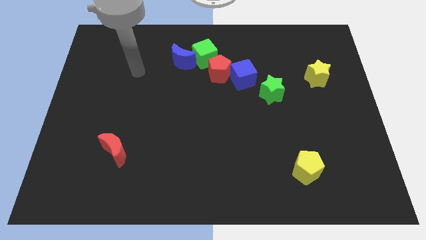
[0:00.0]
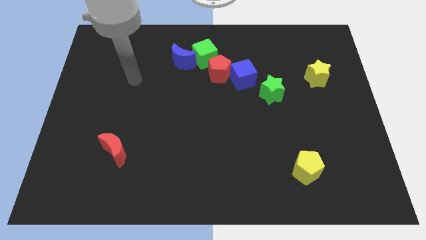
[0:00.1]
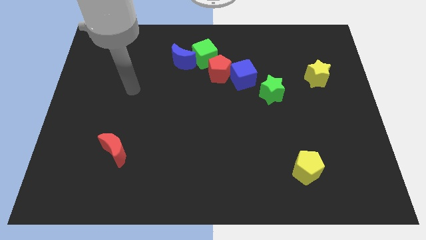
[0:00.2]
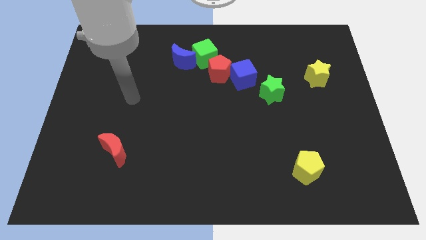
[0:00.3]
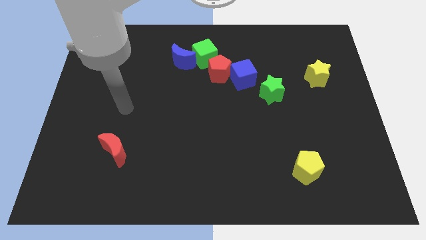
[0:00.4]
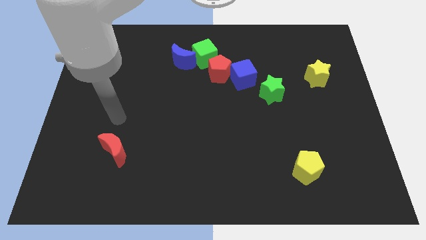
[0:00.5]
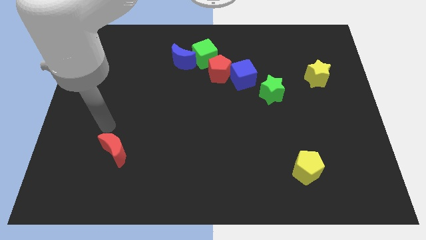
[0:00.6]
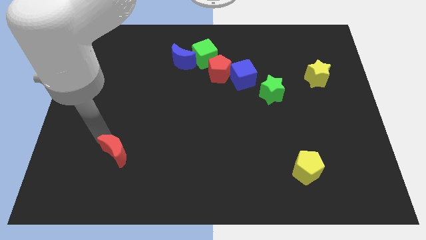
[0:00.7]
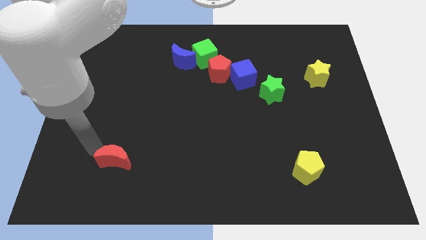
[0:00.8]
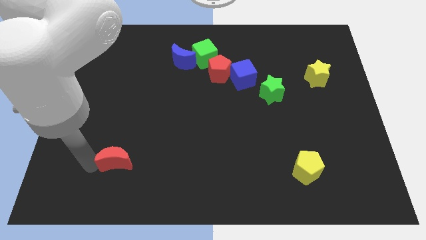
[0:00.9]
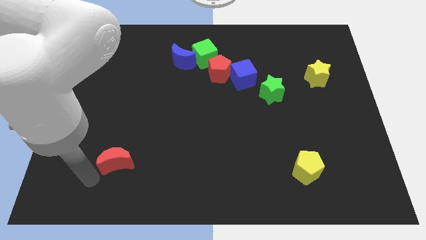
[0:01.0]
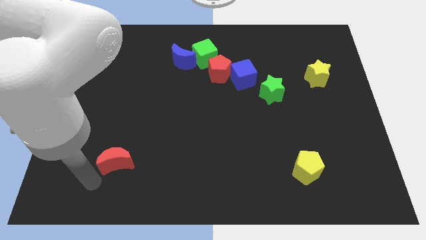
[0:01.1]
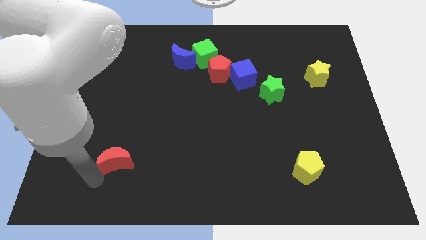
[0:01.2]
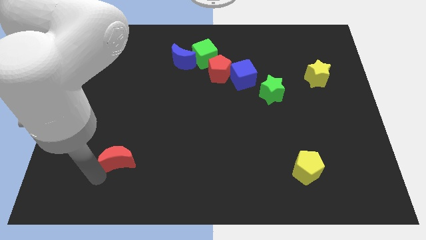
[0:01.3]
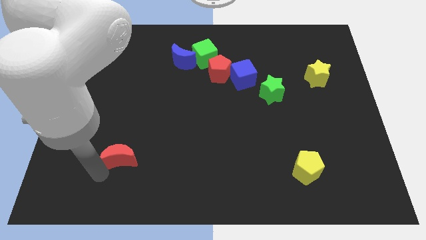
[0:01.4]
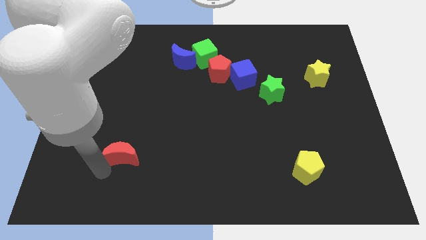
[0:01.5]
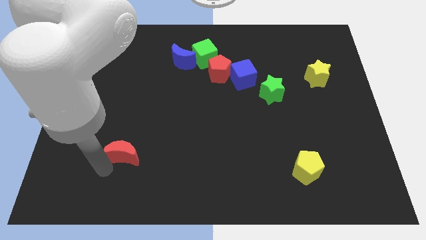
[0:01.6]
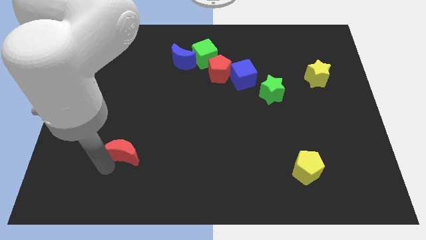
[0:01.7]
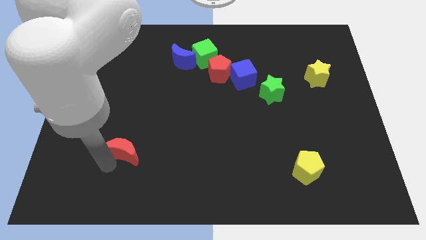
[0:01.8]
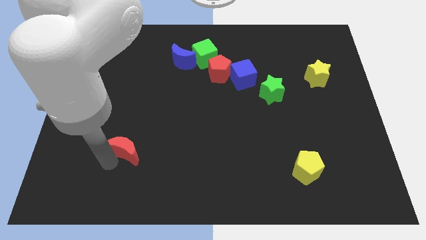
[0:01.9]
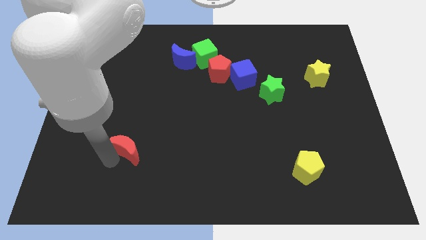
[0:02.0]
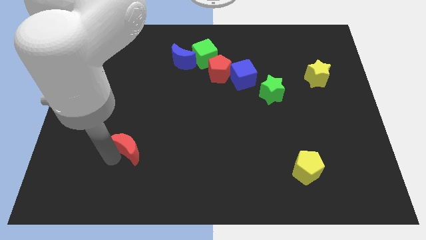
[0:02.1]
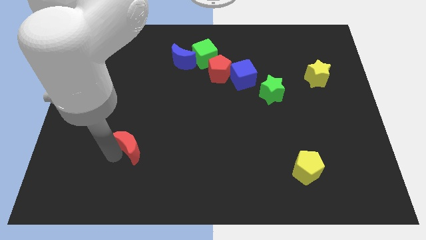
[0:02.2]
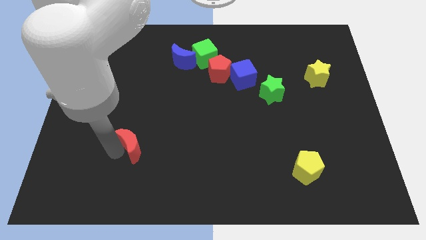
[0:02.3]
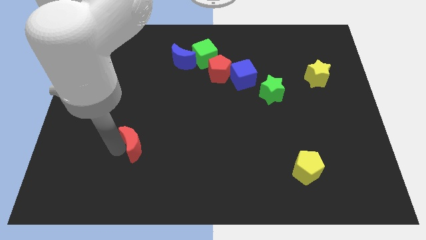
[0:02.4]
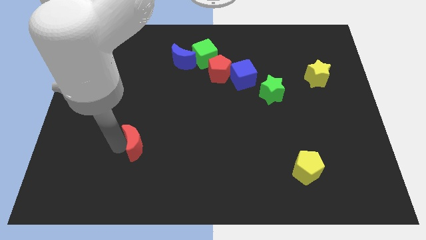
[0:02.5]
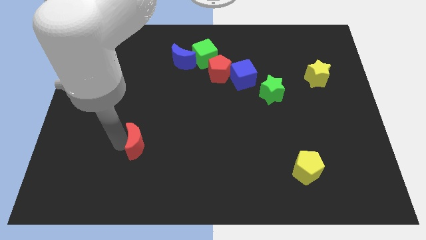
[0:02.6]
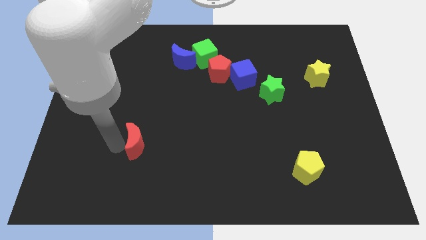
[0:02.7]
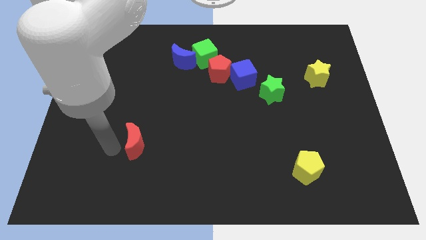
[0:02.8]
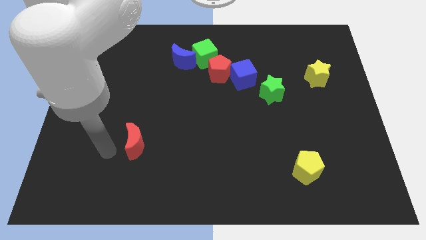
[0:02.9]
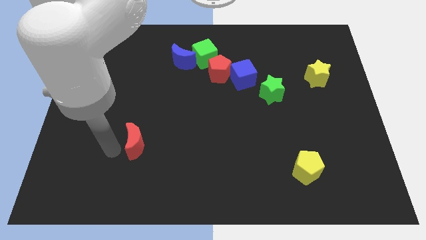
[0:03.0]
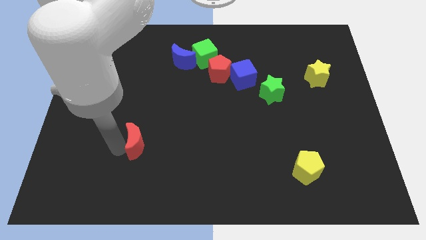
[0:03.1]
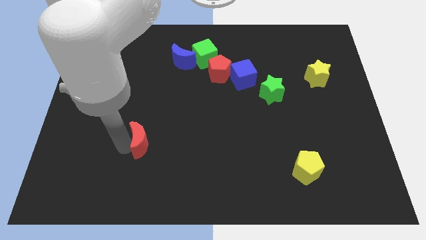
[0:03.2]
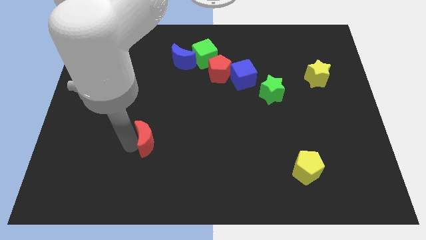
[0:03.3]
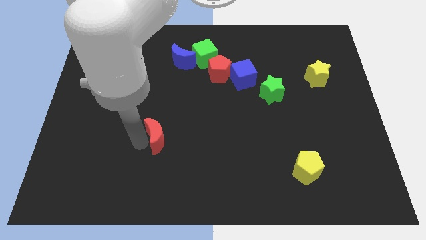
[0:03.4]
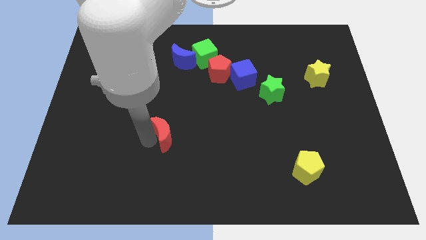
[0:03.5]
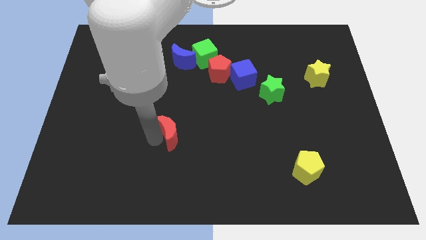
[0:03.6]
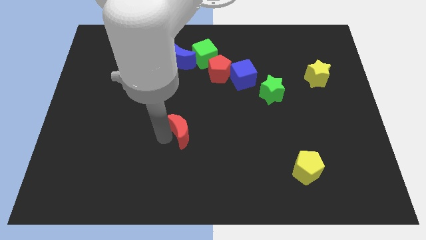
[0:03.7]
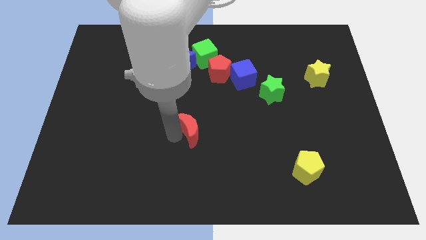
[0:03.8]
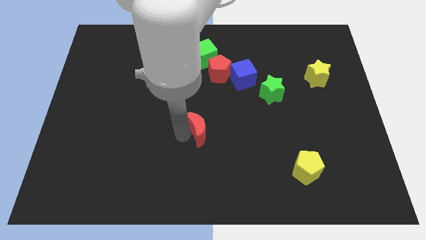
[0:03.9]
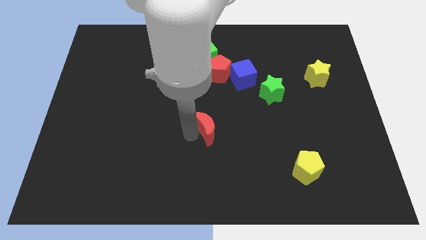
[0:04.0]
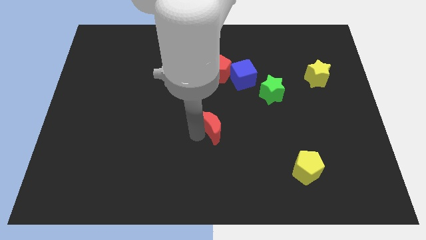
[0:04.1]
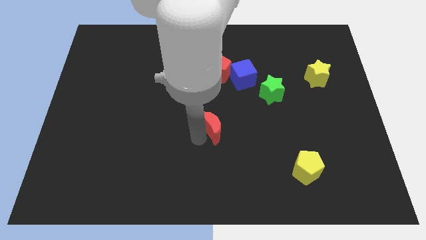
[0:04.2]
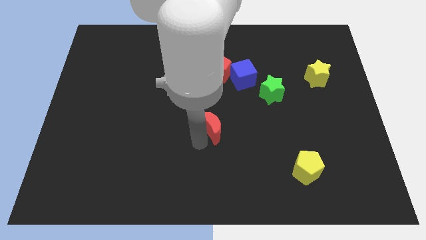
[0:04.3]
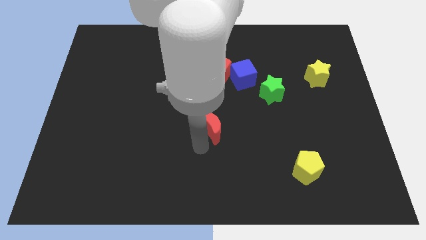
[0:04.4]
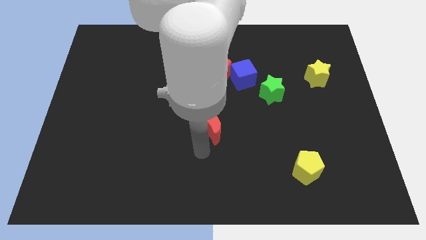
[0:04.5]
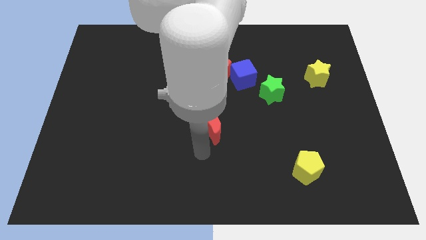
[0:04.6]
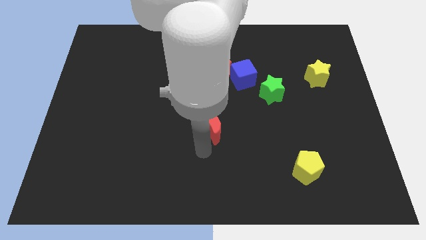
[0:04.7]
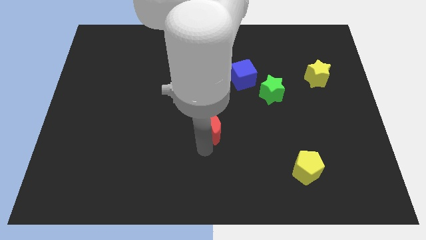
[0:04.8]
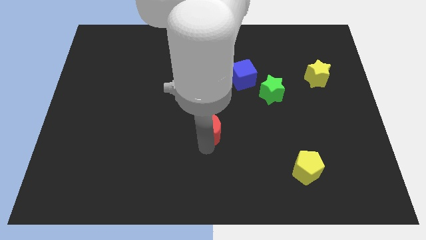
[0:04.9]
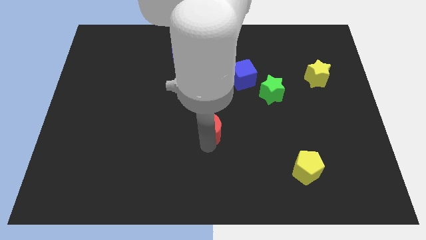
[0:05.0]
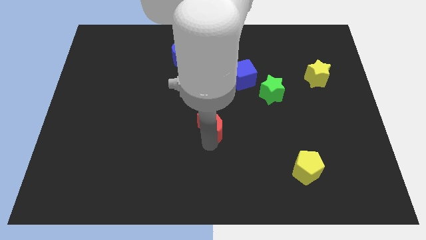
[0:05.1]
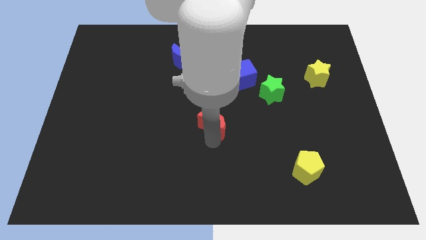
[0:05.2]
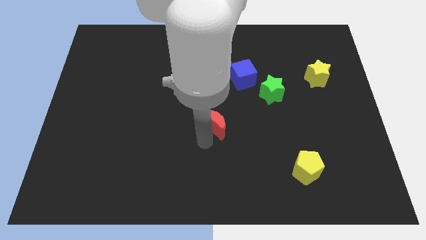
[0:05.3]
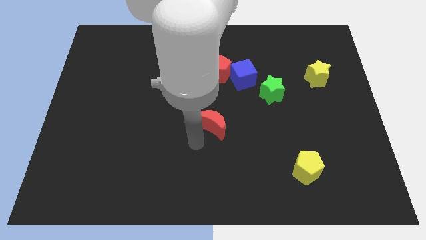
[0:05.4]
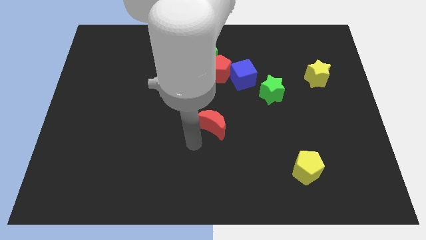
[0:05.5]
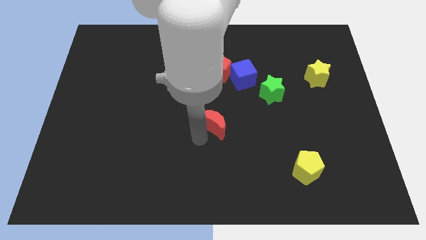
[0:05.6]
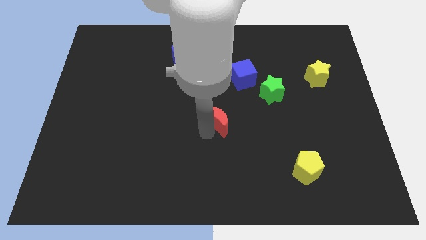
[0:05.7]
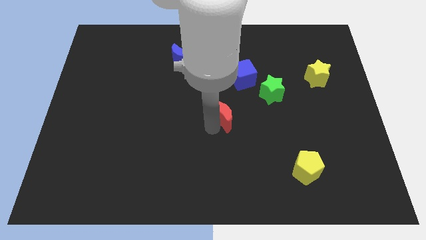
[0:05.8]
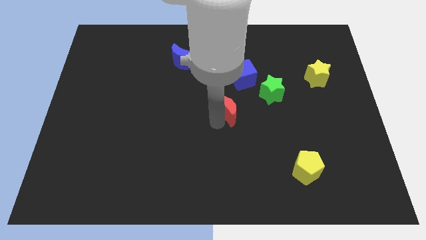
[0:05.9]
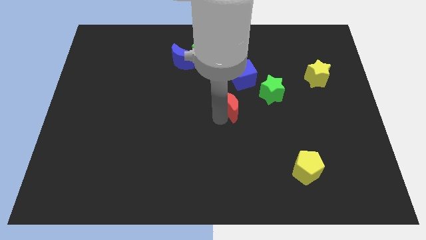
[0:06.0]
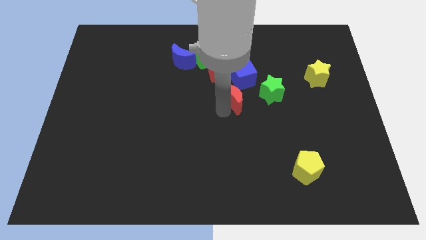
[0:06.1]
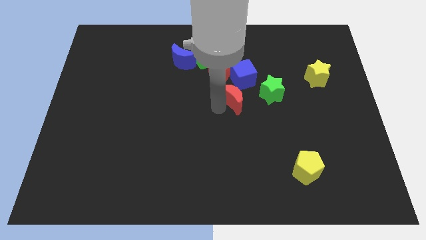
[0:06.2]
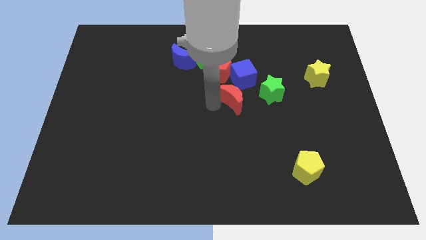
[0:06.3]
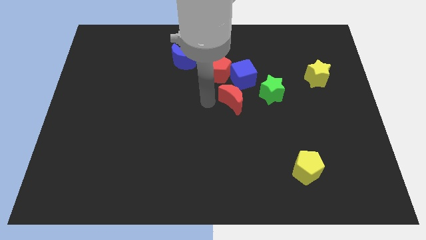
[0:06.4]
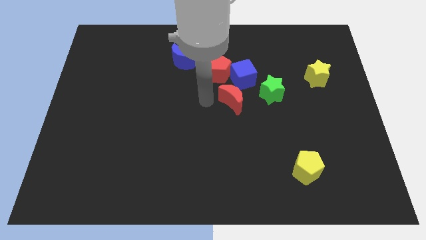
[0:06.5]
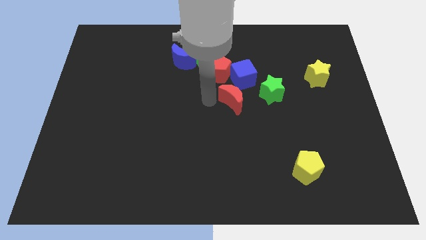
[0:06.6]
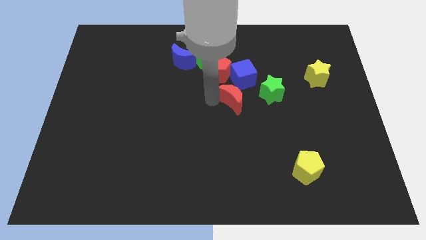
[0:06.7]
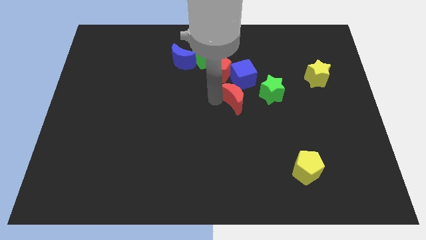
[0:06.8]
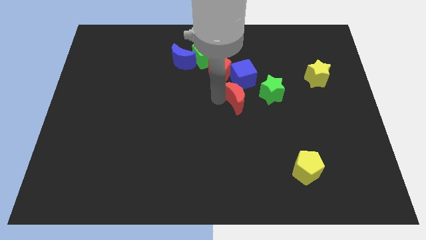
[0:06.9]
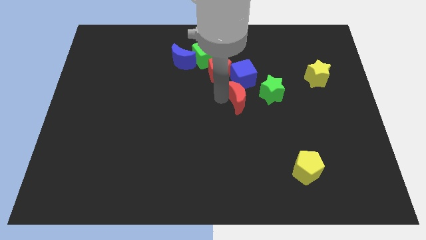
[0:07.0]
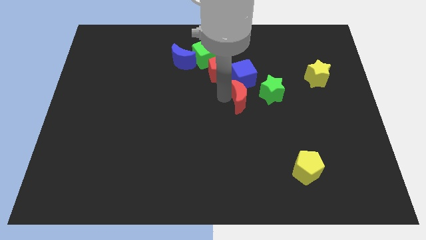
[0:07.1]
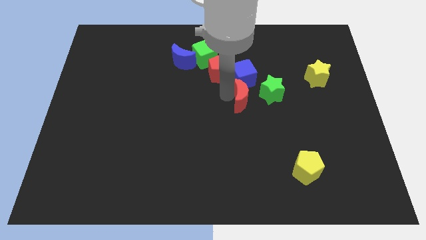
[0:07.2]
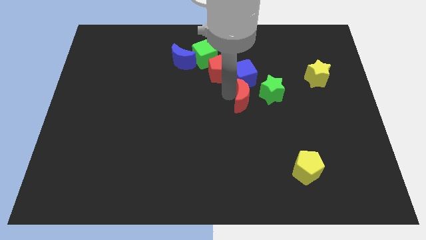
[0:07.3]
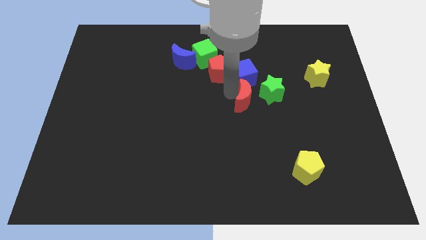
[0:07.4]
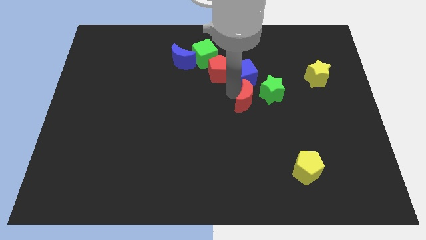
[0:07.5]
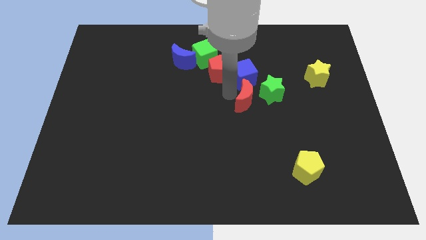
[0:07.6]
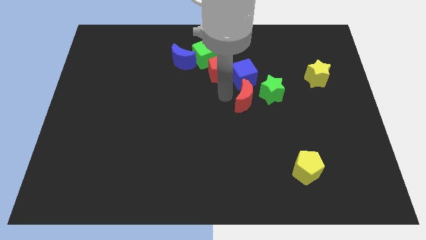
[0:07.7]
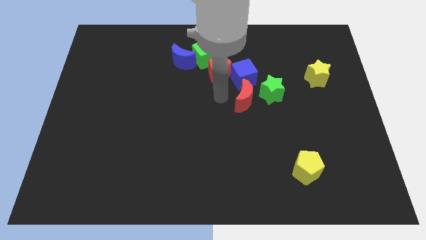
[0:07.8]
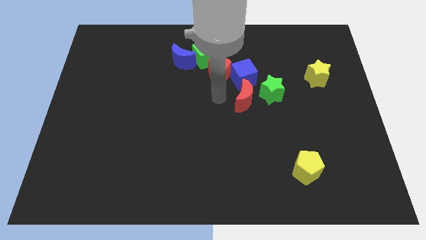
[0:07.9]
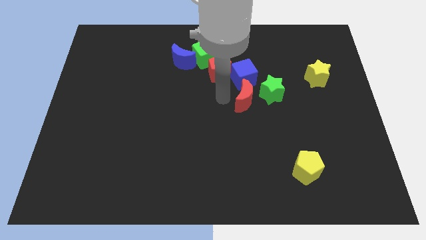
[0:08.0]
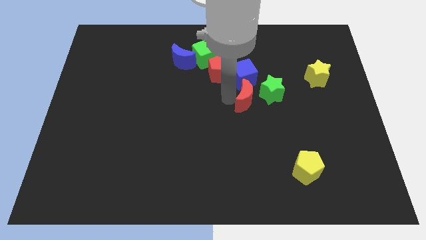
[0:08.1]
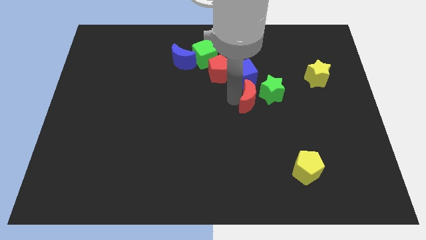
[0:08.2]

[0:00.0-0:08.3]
slide the red moon to the green star
